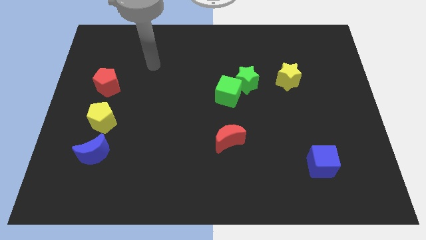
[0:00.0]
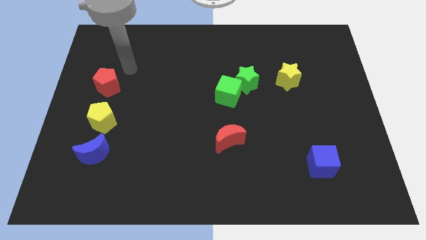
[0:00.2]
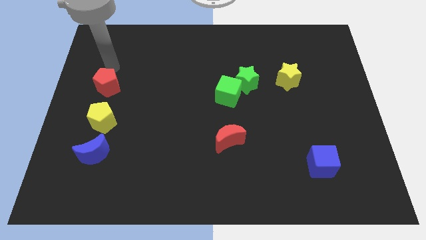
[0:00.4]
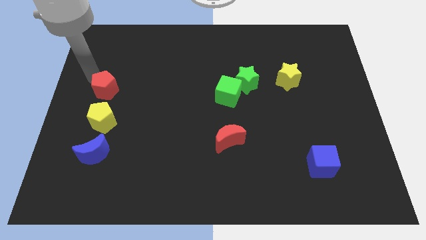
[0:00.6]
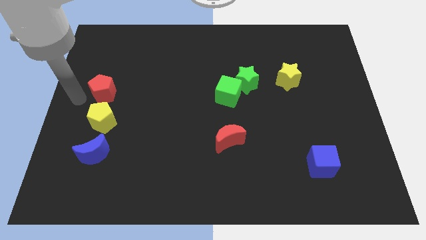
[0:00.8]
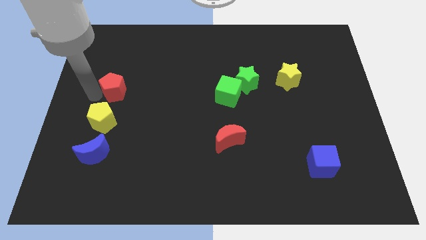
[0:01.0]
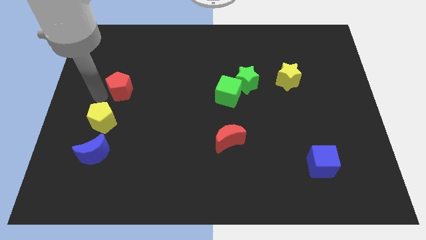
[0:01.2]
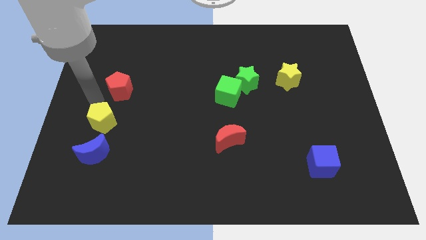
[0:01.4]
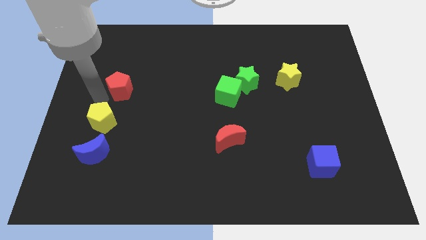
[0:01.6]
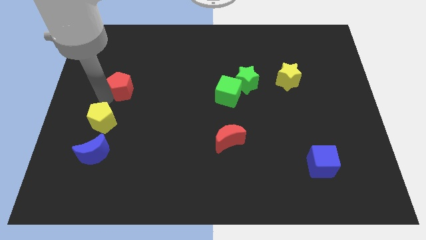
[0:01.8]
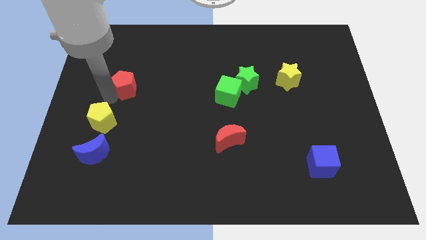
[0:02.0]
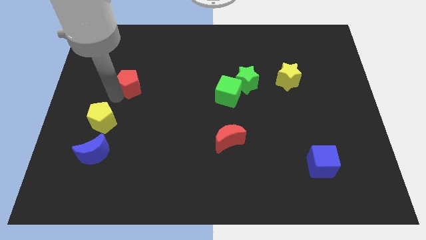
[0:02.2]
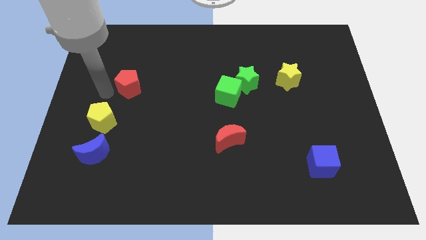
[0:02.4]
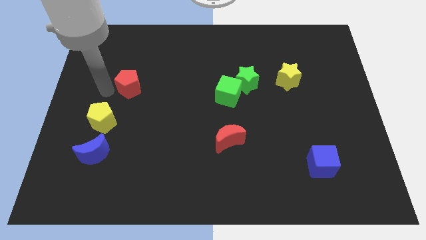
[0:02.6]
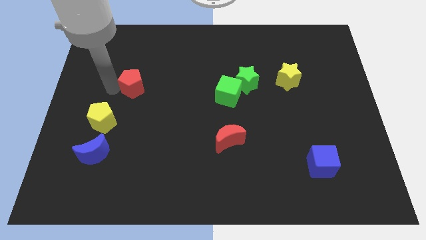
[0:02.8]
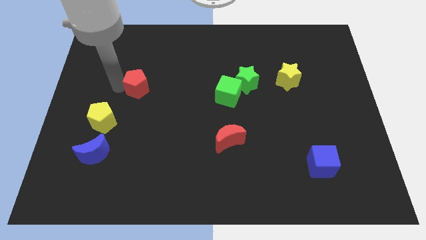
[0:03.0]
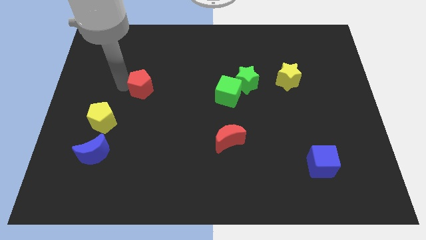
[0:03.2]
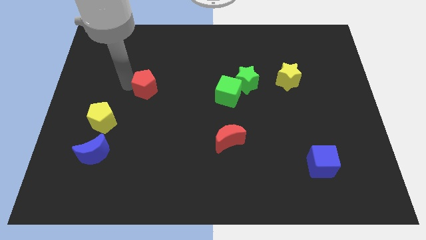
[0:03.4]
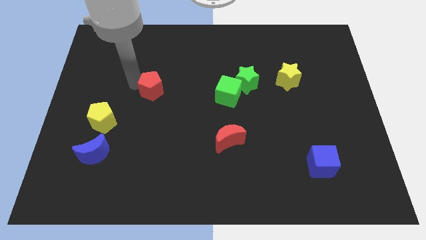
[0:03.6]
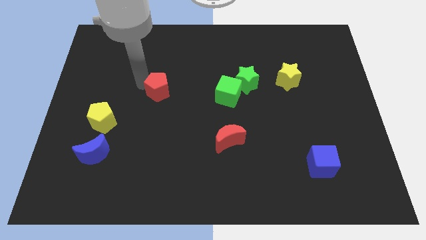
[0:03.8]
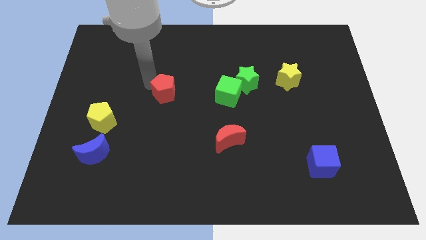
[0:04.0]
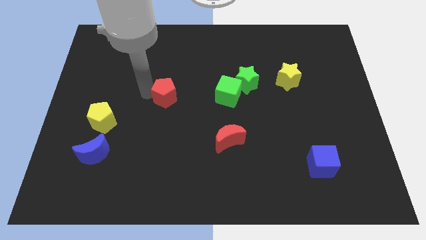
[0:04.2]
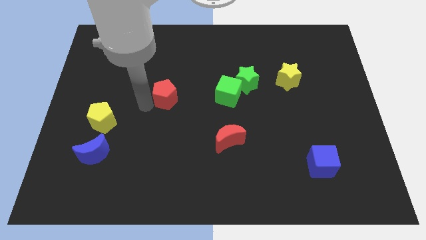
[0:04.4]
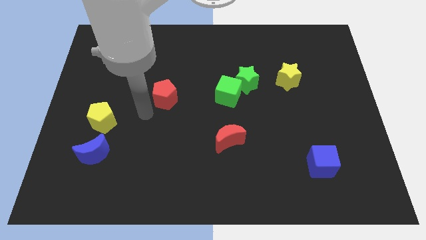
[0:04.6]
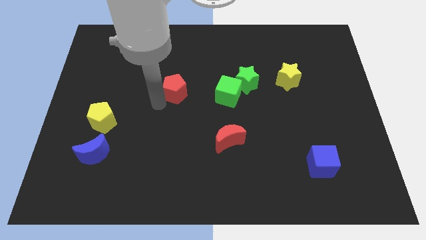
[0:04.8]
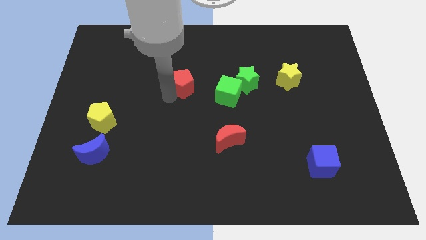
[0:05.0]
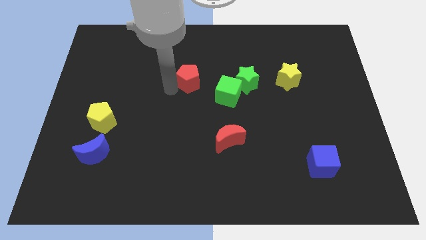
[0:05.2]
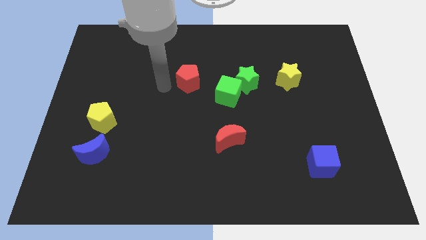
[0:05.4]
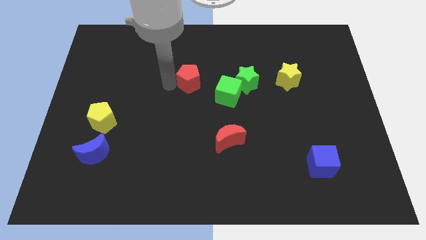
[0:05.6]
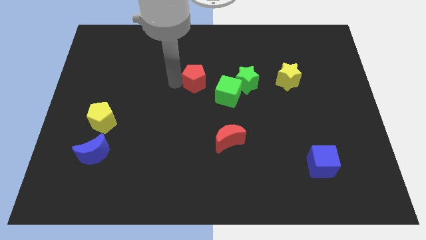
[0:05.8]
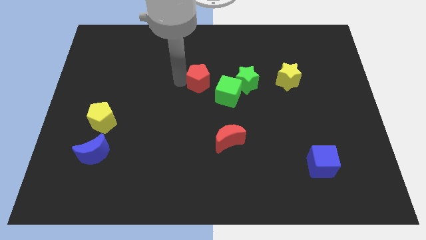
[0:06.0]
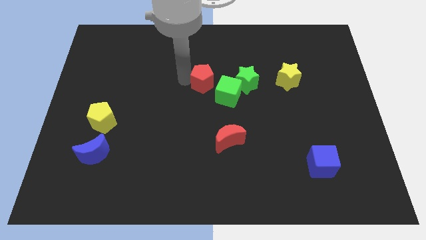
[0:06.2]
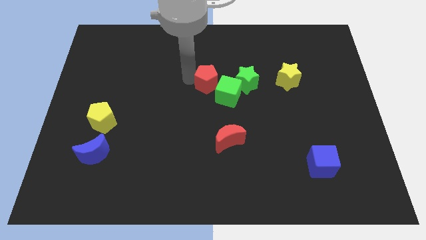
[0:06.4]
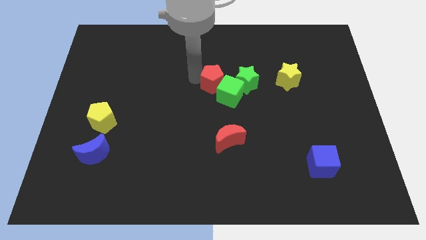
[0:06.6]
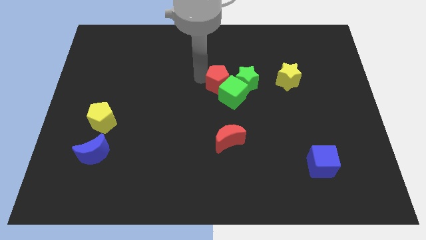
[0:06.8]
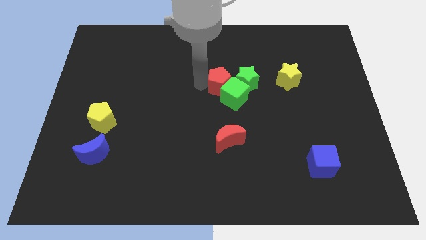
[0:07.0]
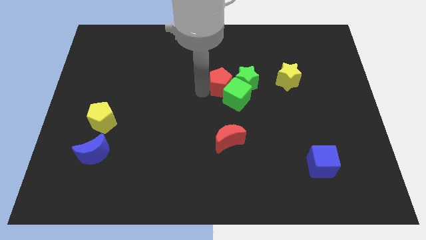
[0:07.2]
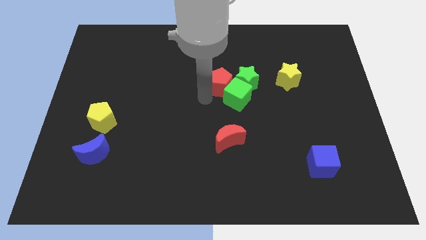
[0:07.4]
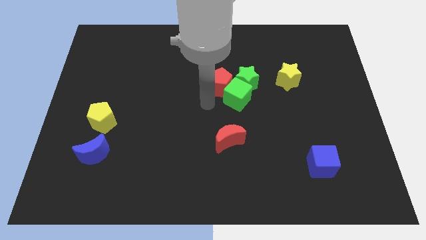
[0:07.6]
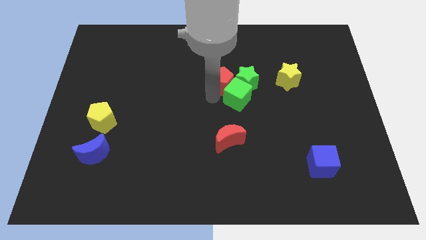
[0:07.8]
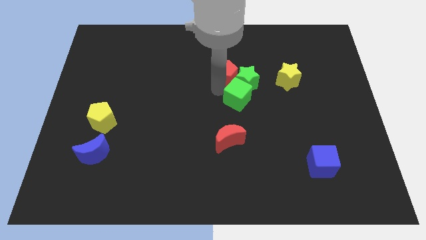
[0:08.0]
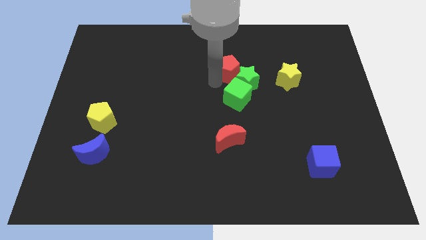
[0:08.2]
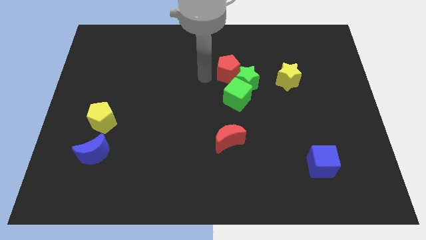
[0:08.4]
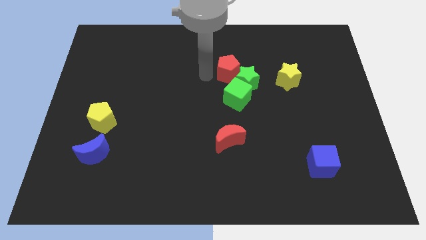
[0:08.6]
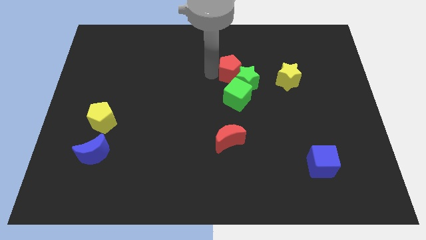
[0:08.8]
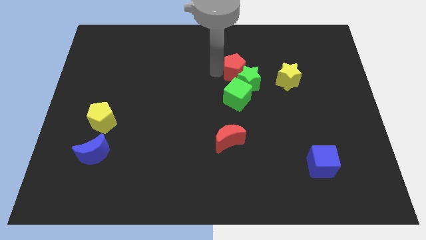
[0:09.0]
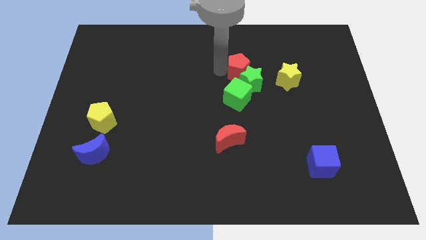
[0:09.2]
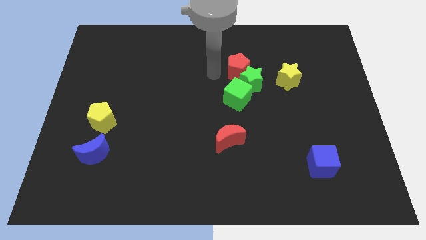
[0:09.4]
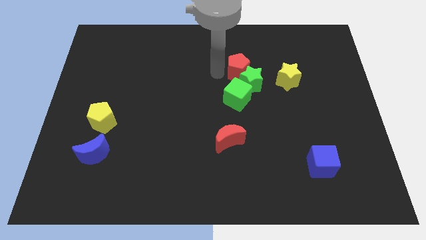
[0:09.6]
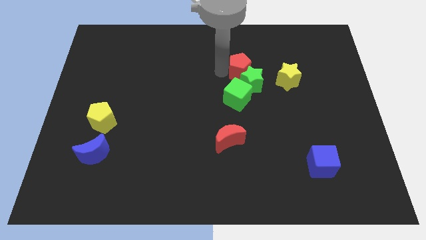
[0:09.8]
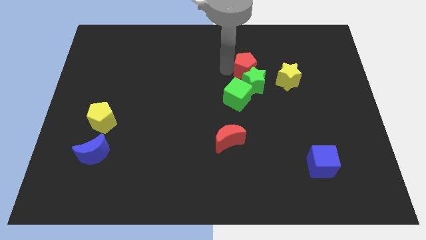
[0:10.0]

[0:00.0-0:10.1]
put the red pentagon to the top right side of the green cube

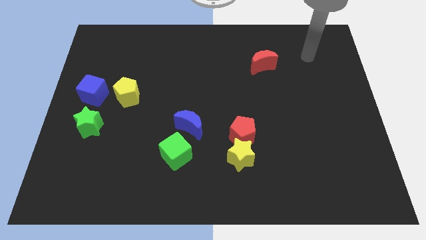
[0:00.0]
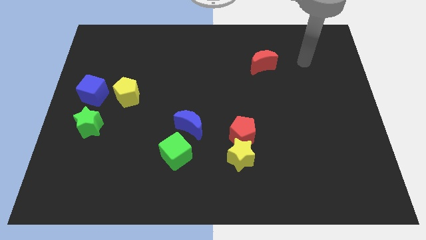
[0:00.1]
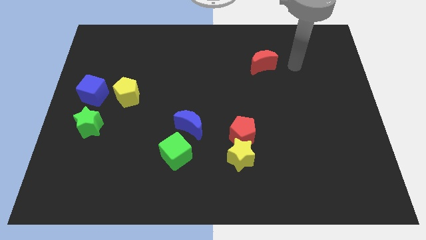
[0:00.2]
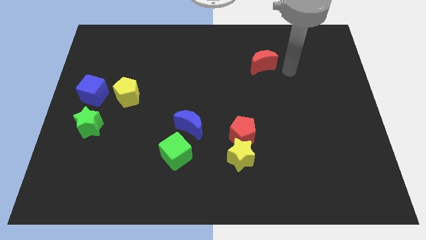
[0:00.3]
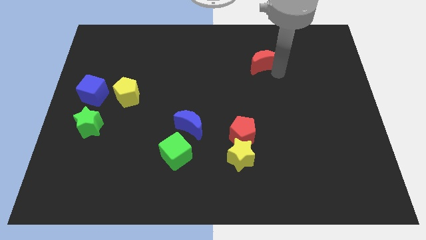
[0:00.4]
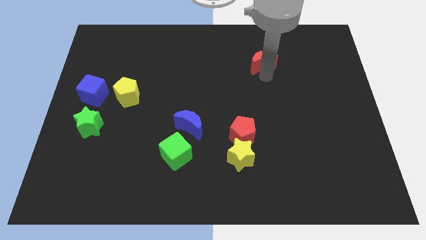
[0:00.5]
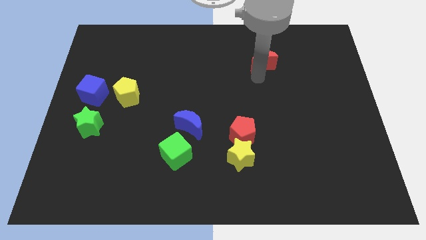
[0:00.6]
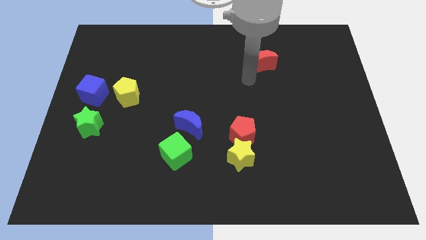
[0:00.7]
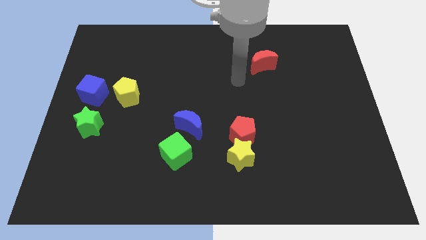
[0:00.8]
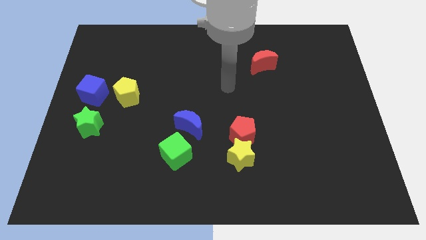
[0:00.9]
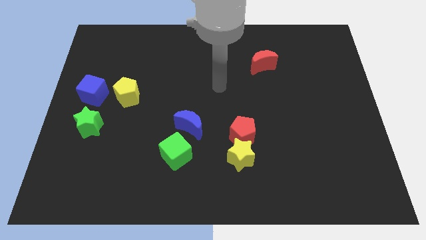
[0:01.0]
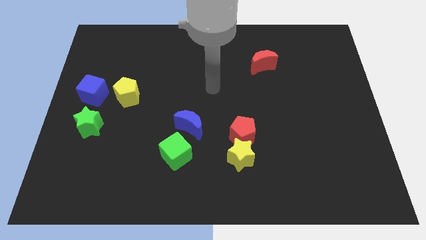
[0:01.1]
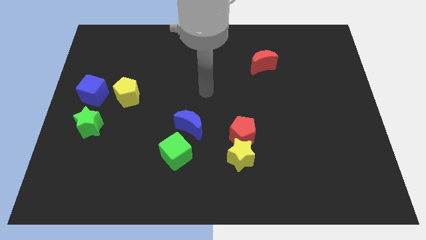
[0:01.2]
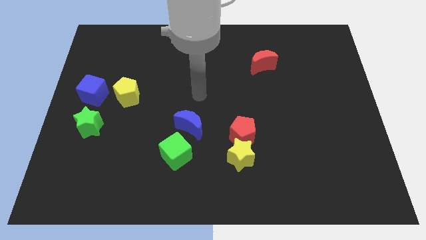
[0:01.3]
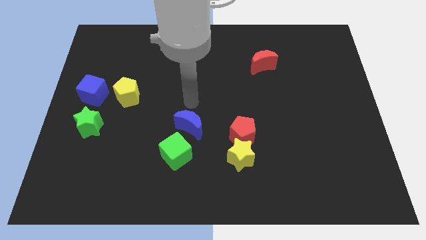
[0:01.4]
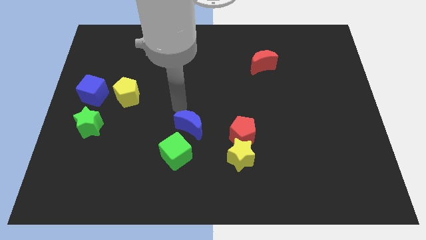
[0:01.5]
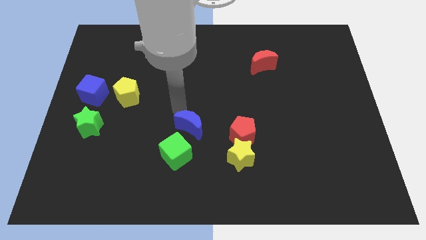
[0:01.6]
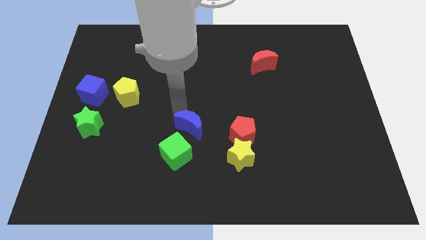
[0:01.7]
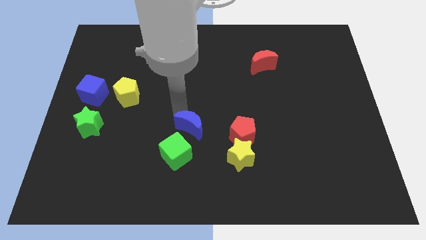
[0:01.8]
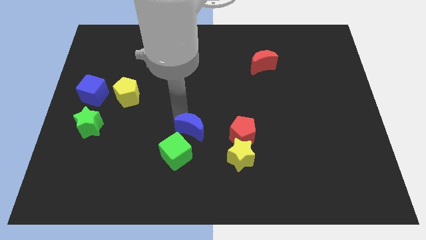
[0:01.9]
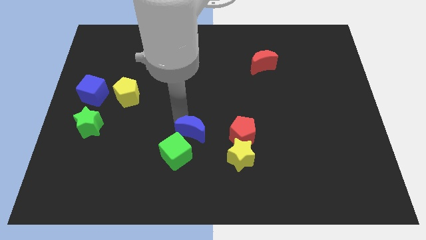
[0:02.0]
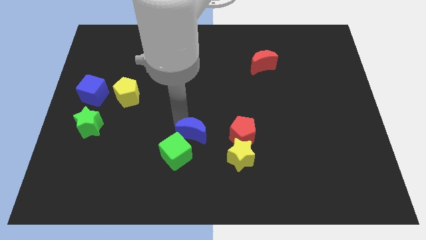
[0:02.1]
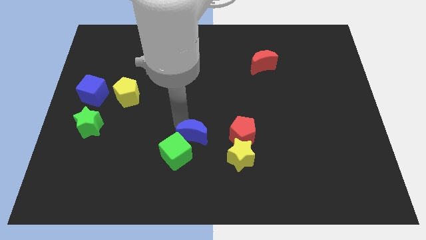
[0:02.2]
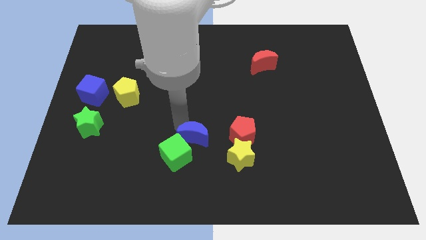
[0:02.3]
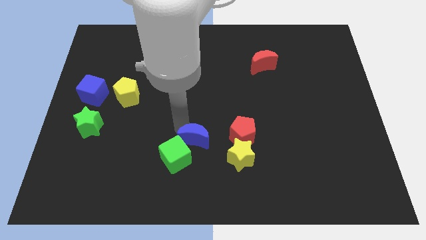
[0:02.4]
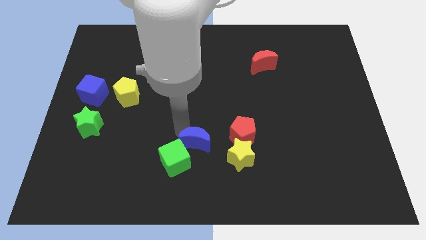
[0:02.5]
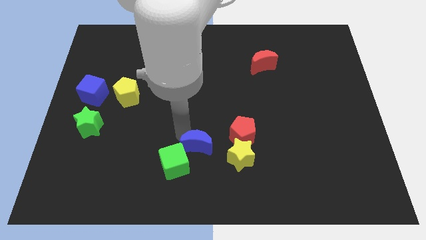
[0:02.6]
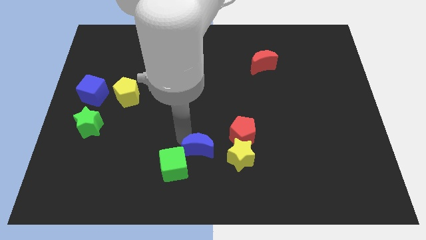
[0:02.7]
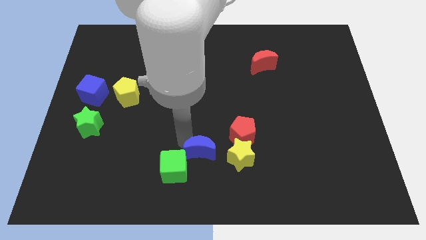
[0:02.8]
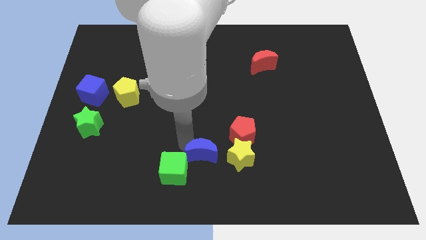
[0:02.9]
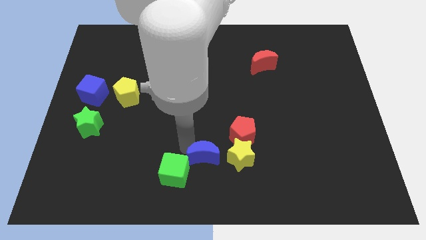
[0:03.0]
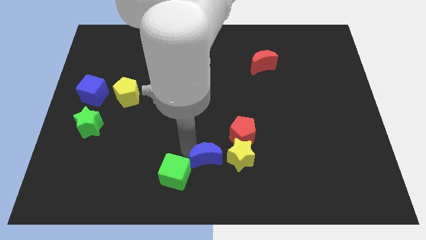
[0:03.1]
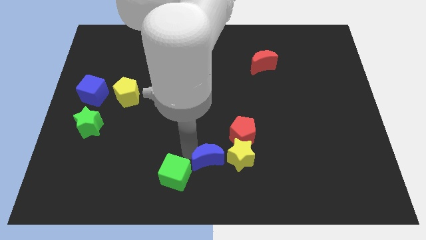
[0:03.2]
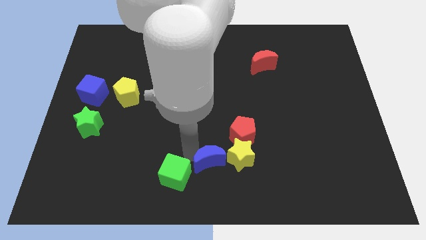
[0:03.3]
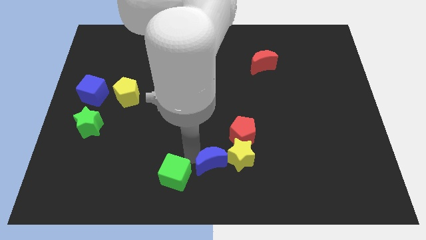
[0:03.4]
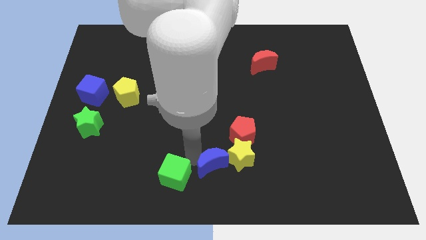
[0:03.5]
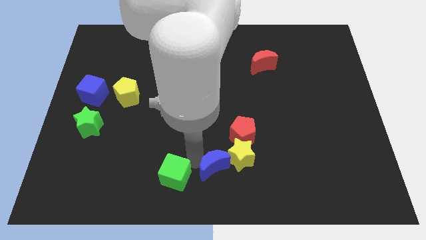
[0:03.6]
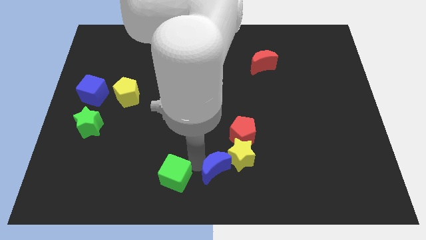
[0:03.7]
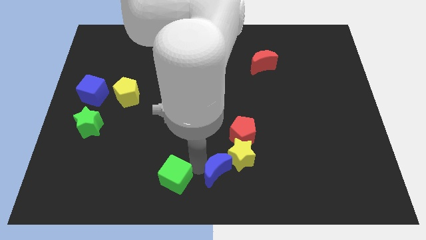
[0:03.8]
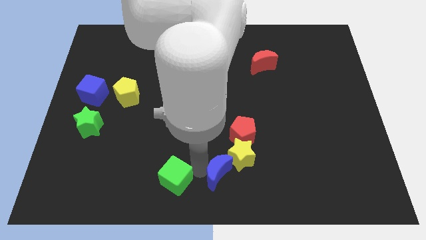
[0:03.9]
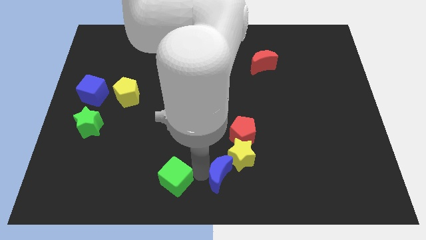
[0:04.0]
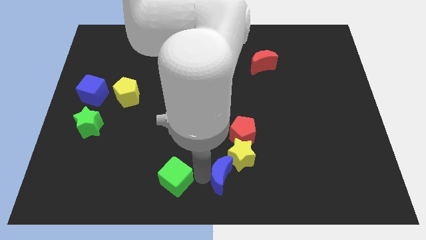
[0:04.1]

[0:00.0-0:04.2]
push the blue moon to the bottom side of the red pentagon
